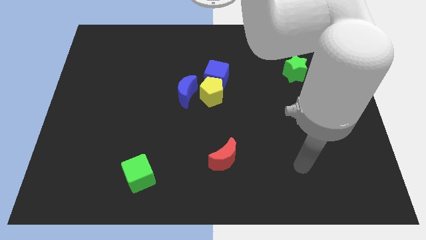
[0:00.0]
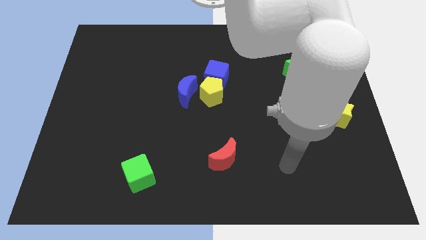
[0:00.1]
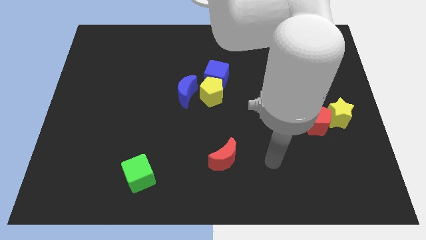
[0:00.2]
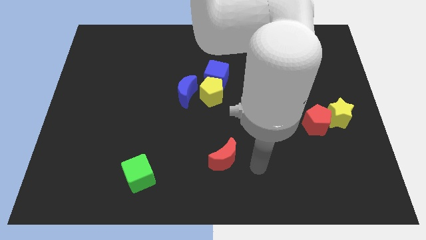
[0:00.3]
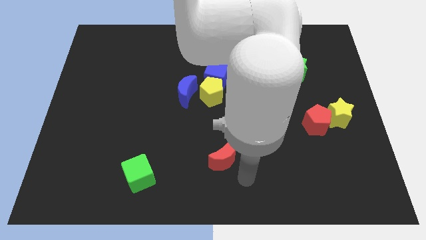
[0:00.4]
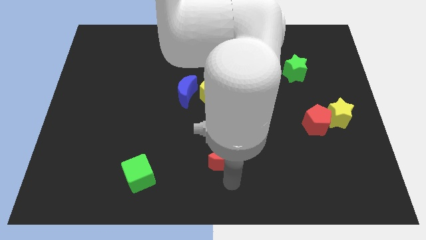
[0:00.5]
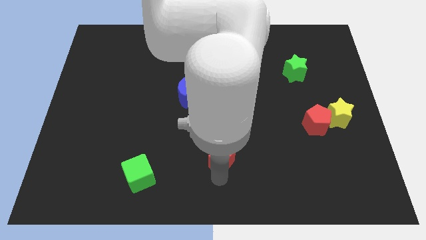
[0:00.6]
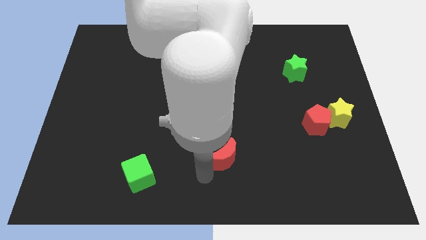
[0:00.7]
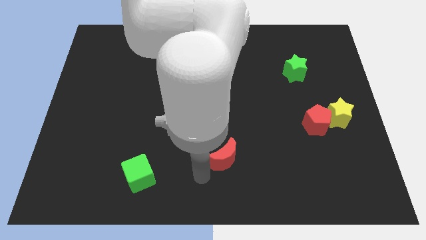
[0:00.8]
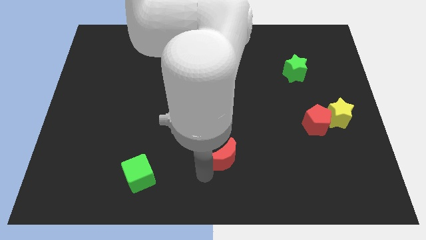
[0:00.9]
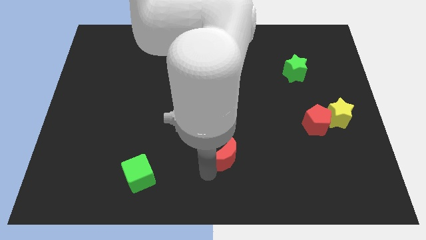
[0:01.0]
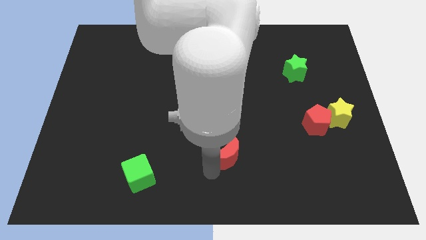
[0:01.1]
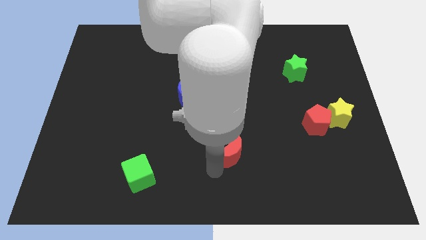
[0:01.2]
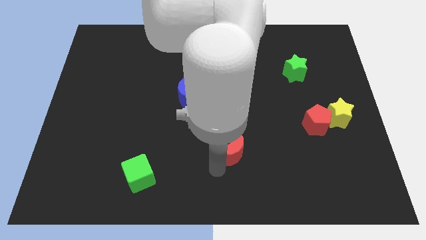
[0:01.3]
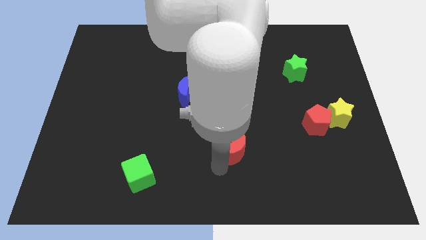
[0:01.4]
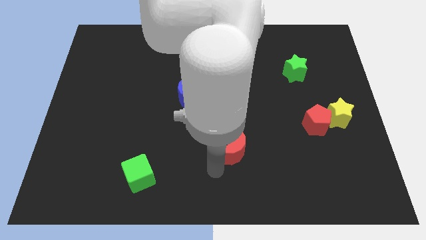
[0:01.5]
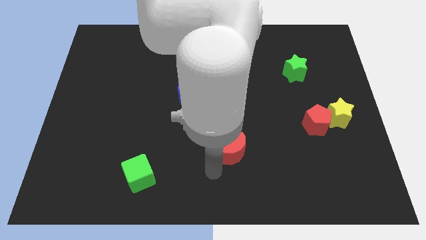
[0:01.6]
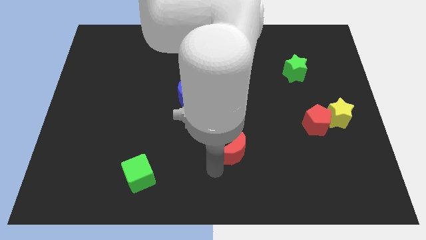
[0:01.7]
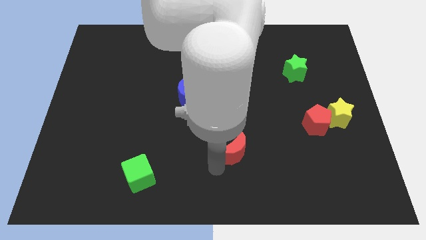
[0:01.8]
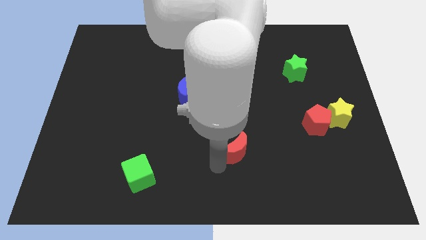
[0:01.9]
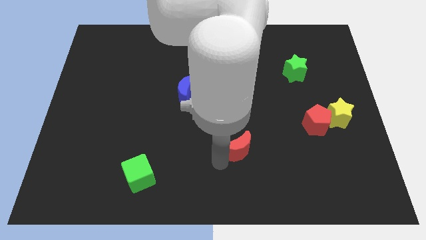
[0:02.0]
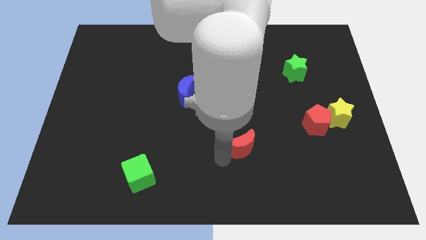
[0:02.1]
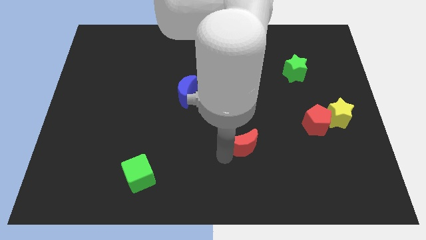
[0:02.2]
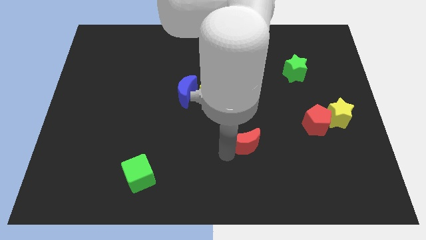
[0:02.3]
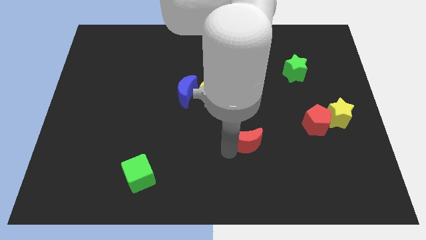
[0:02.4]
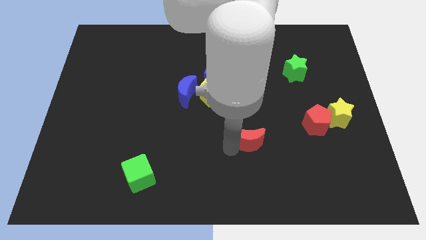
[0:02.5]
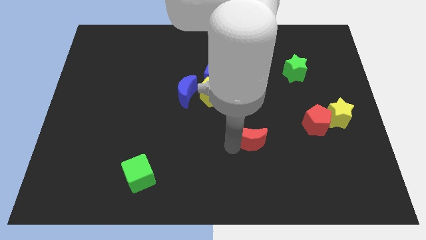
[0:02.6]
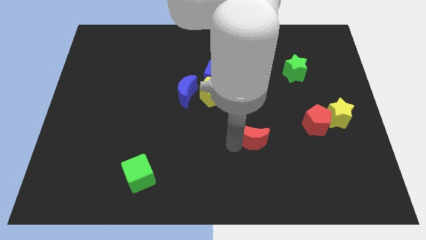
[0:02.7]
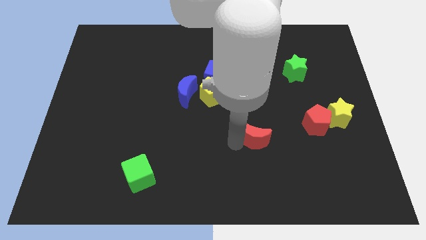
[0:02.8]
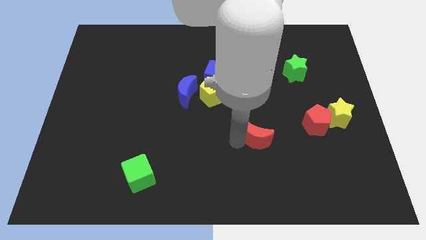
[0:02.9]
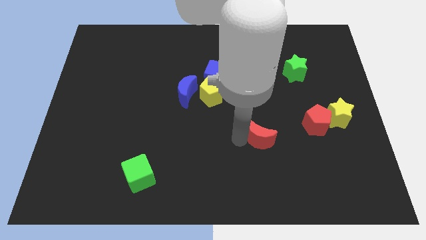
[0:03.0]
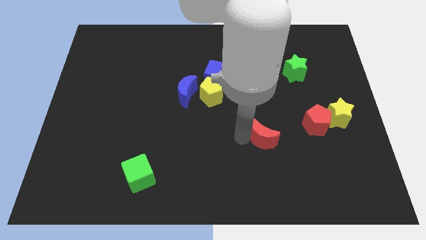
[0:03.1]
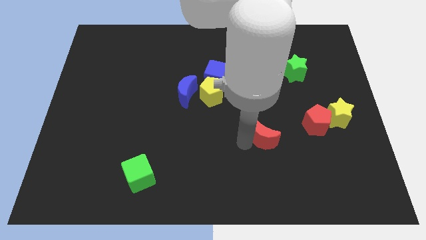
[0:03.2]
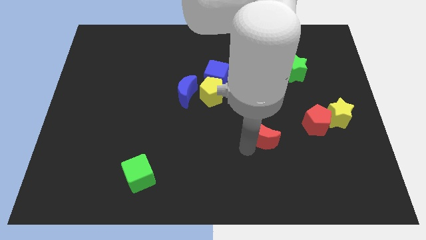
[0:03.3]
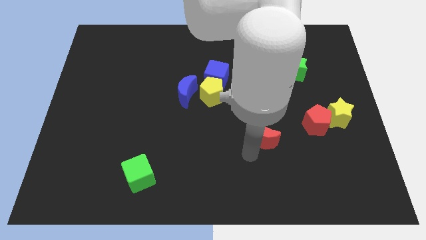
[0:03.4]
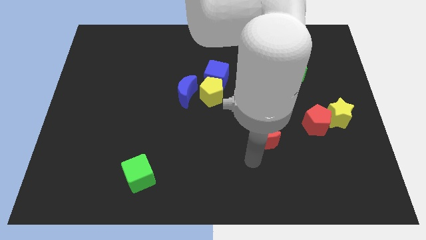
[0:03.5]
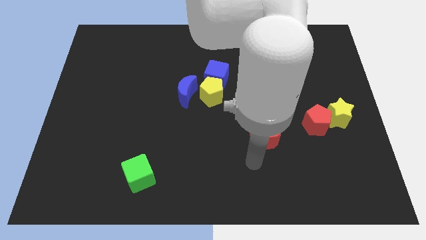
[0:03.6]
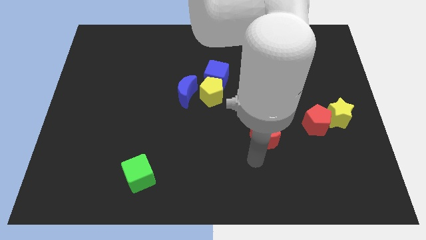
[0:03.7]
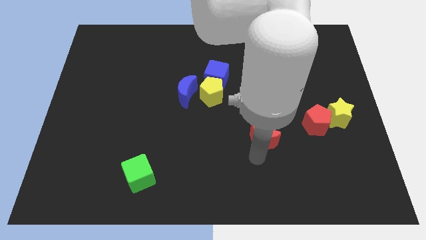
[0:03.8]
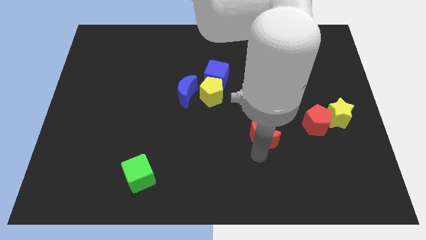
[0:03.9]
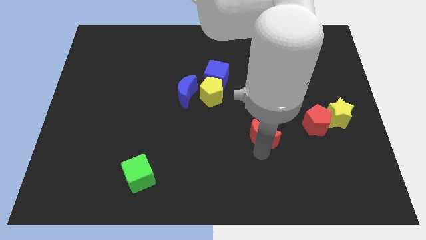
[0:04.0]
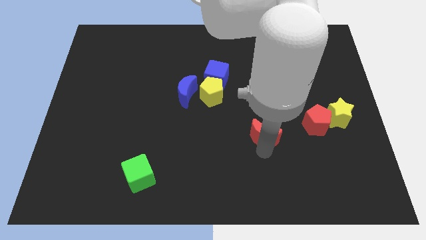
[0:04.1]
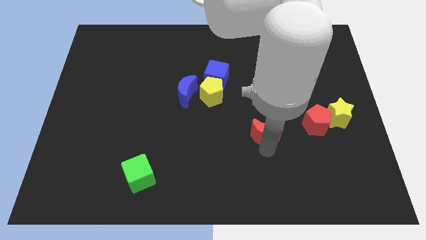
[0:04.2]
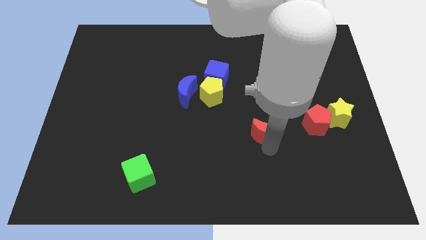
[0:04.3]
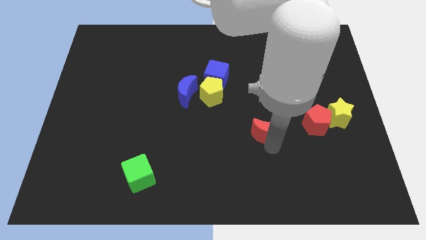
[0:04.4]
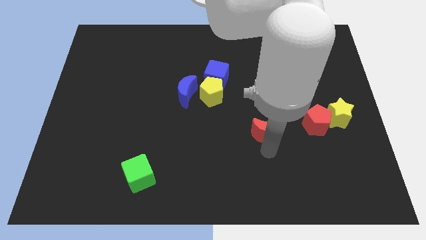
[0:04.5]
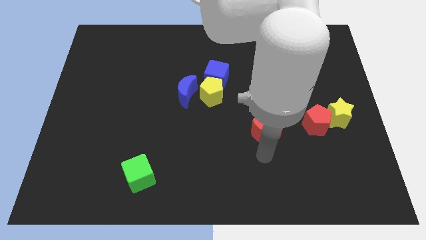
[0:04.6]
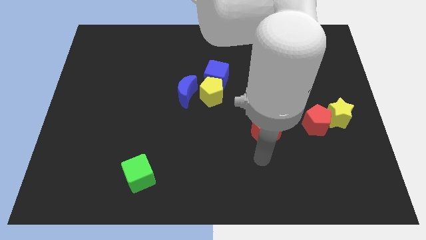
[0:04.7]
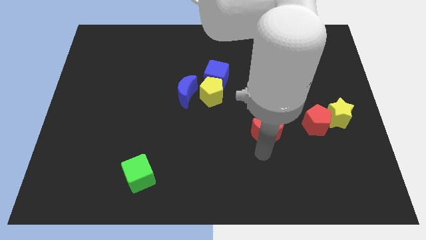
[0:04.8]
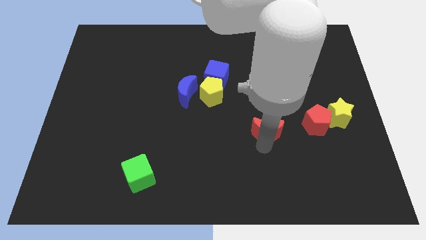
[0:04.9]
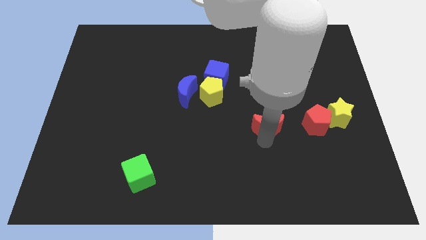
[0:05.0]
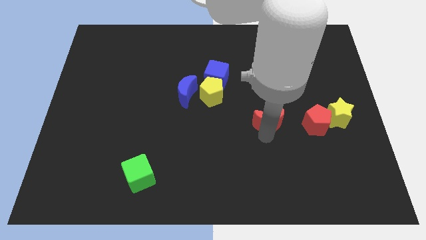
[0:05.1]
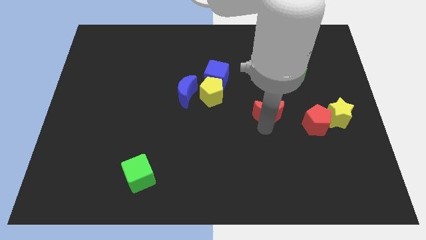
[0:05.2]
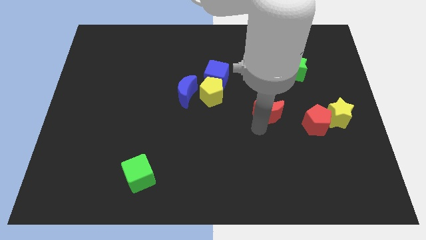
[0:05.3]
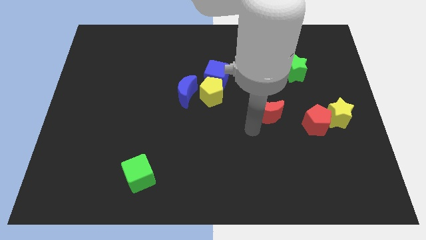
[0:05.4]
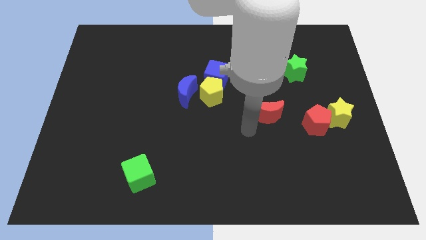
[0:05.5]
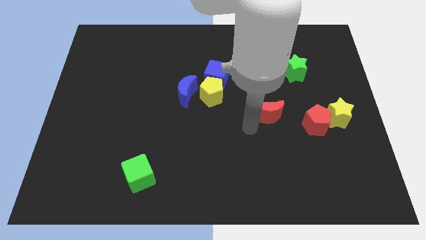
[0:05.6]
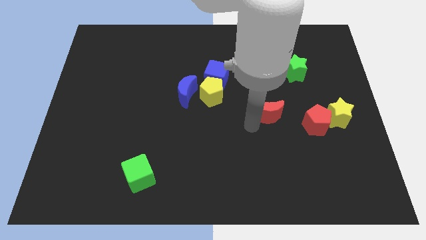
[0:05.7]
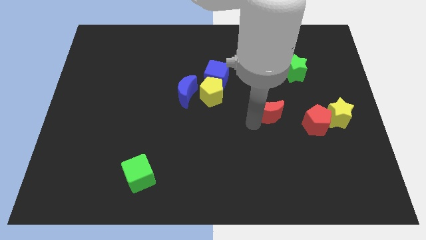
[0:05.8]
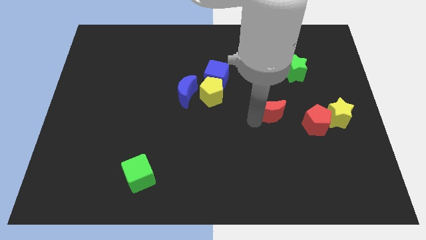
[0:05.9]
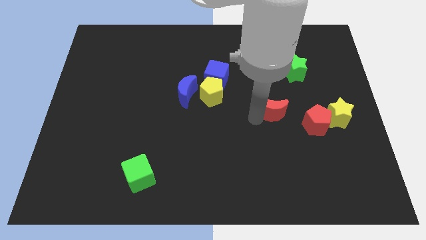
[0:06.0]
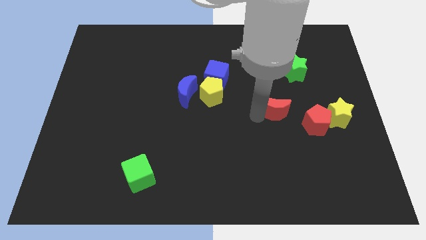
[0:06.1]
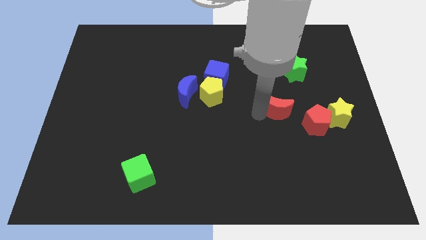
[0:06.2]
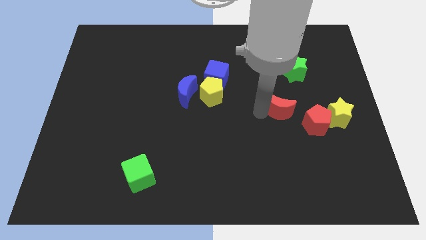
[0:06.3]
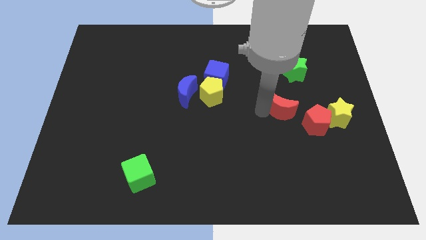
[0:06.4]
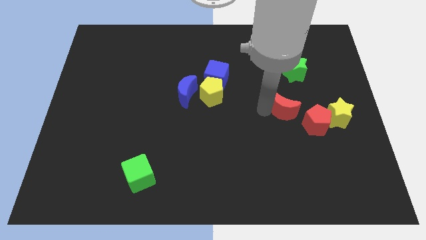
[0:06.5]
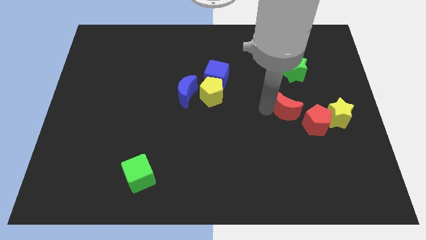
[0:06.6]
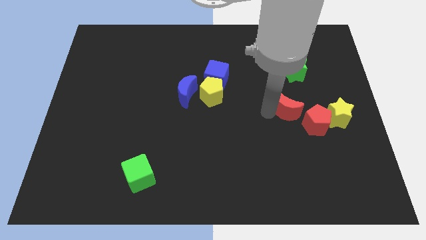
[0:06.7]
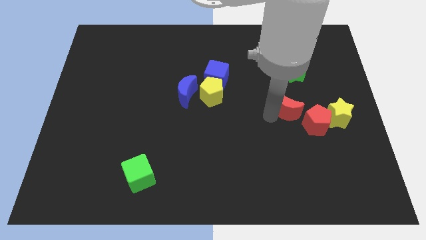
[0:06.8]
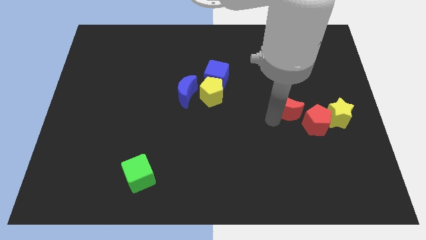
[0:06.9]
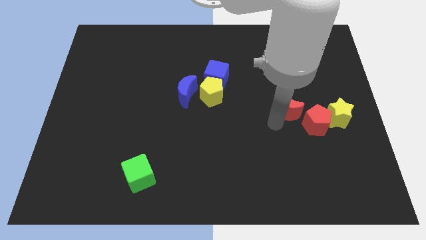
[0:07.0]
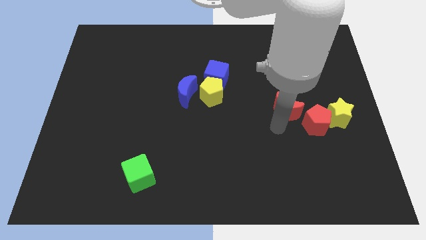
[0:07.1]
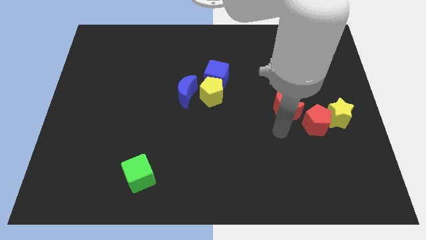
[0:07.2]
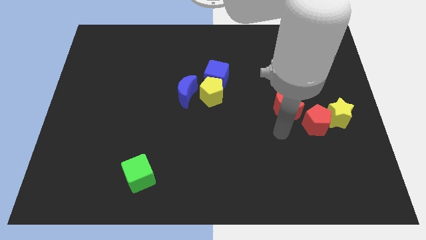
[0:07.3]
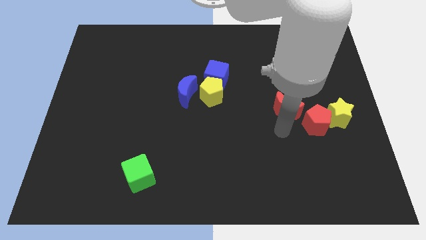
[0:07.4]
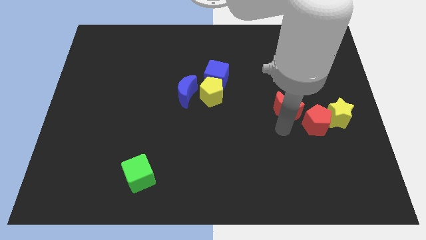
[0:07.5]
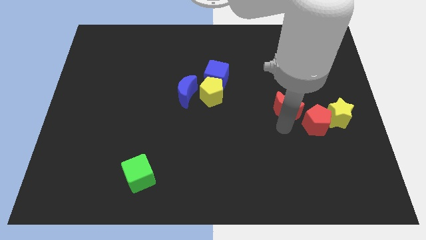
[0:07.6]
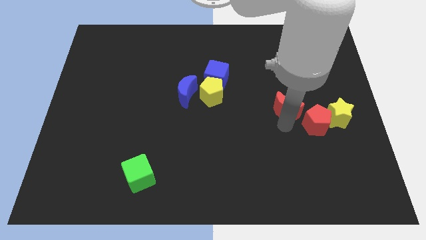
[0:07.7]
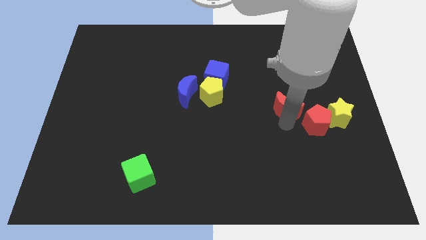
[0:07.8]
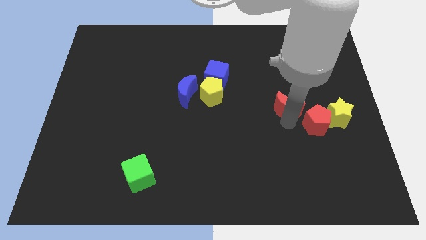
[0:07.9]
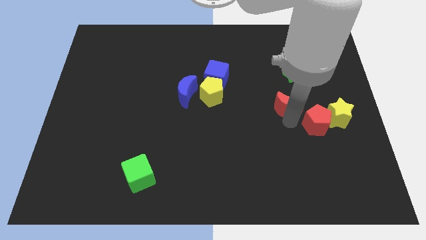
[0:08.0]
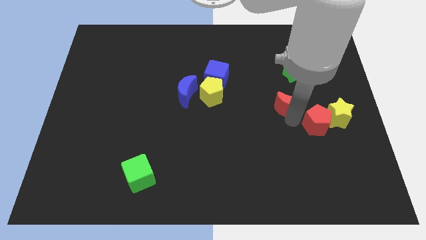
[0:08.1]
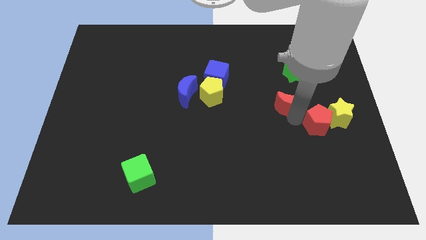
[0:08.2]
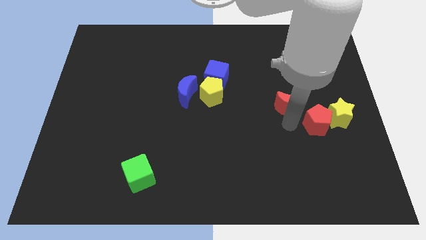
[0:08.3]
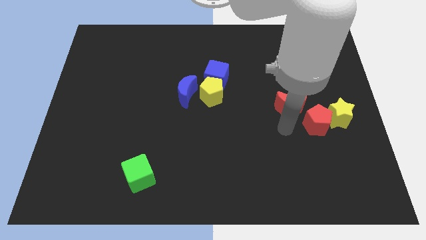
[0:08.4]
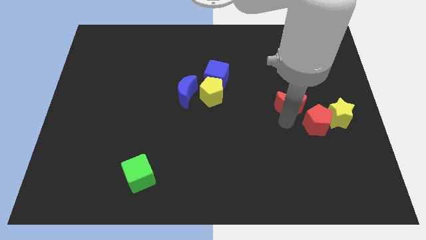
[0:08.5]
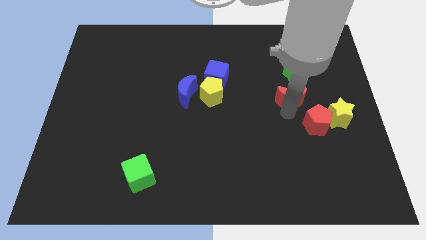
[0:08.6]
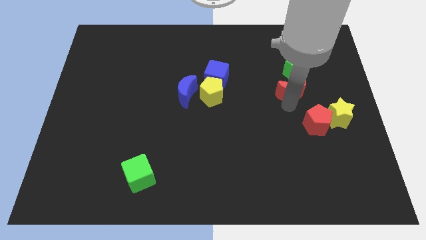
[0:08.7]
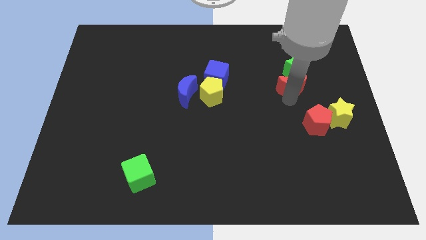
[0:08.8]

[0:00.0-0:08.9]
put the red moon to the green star
